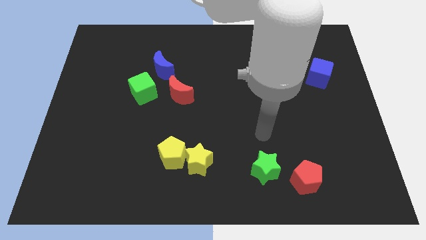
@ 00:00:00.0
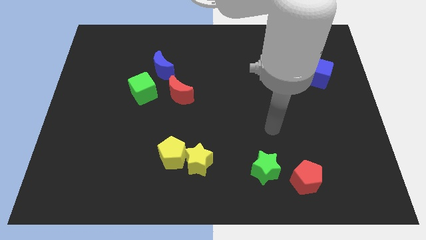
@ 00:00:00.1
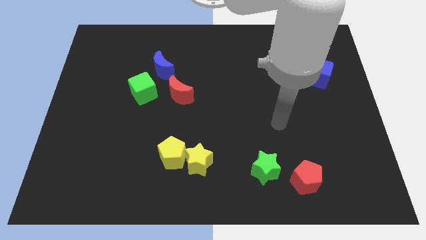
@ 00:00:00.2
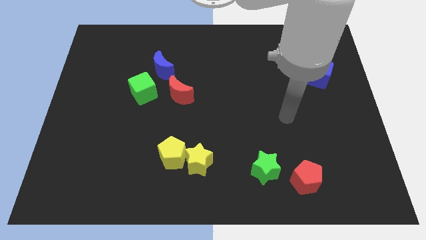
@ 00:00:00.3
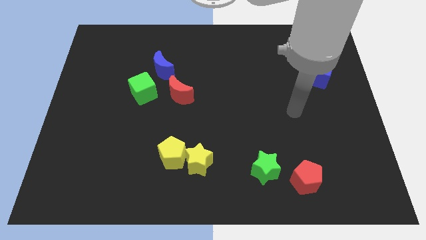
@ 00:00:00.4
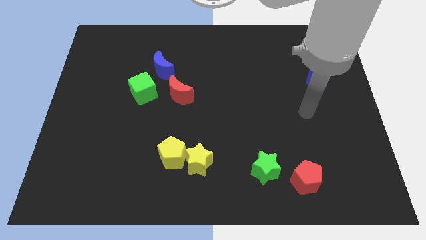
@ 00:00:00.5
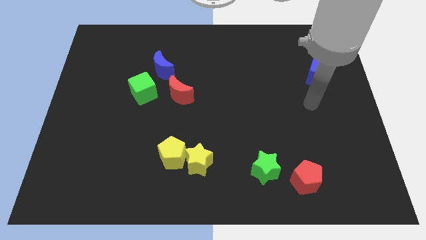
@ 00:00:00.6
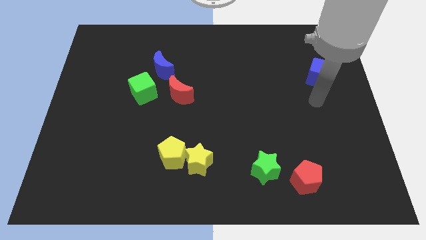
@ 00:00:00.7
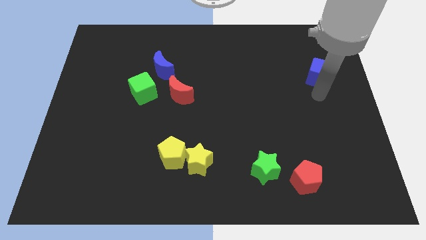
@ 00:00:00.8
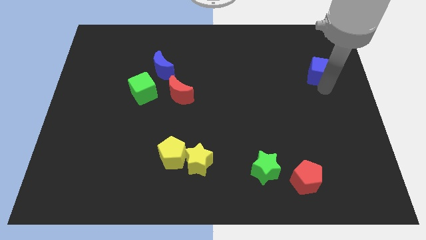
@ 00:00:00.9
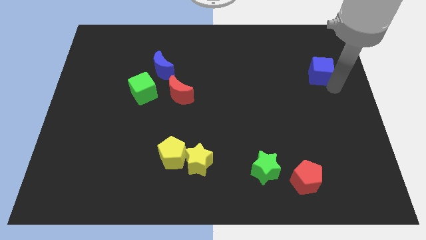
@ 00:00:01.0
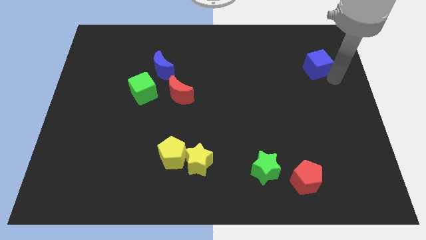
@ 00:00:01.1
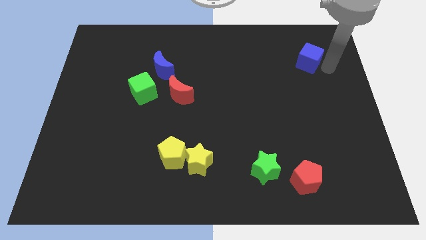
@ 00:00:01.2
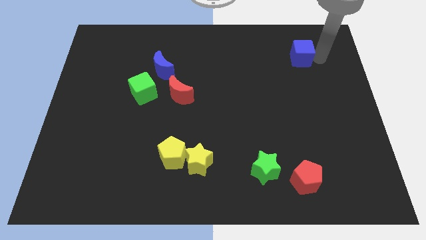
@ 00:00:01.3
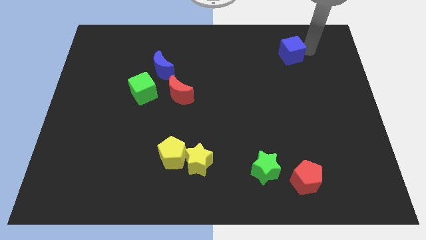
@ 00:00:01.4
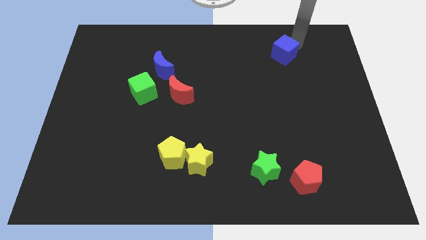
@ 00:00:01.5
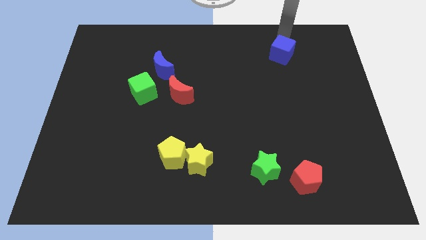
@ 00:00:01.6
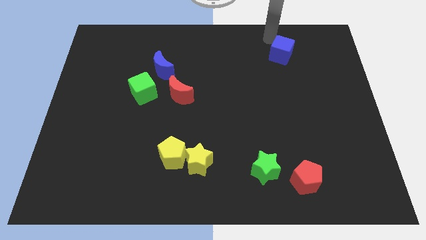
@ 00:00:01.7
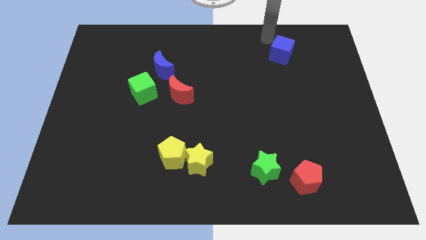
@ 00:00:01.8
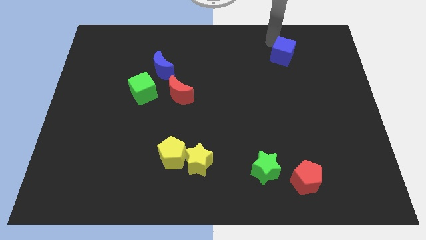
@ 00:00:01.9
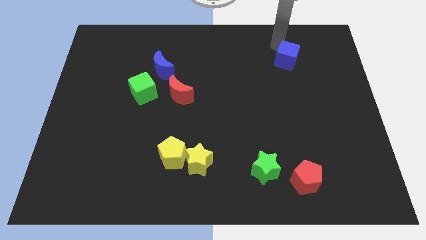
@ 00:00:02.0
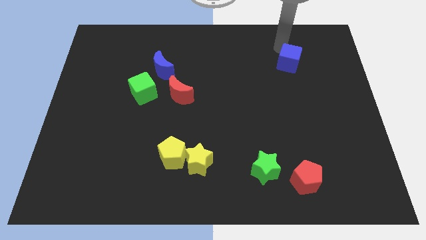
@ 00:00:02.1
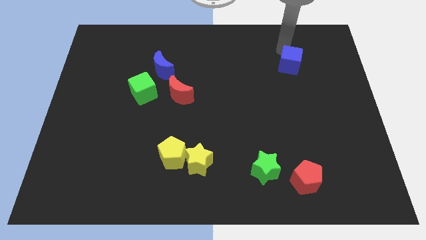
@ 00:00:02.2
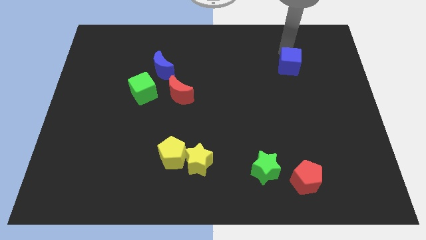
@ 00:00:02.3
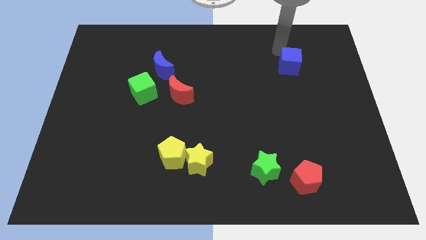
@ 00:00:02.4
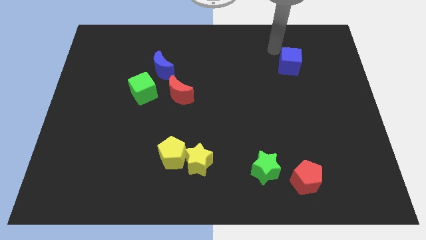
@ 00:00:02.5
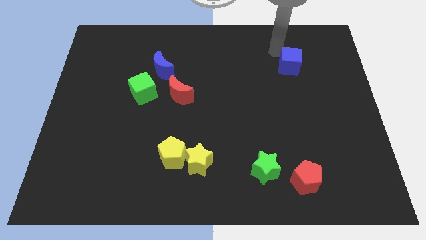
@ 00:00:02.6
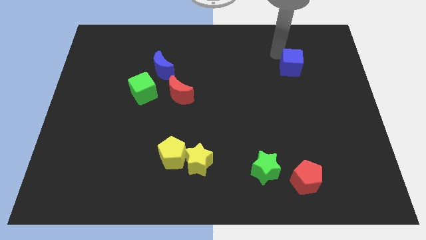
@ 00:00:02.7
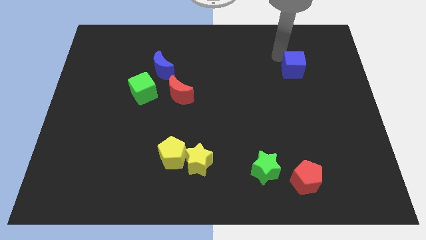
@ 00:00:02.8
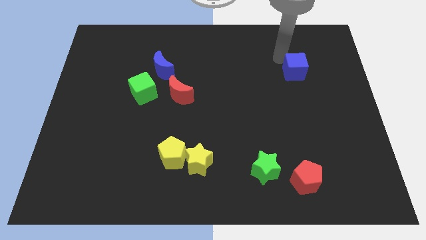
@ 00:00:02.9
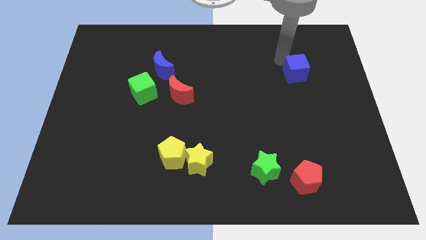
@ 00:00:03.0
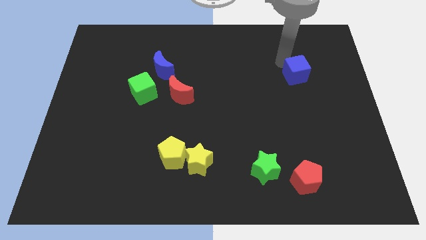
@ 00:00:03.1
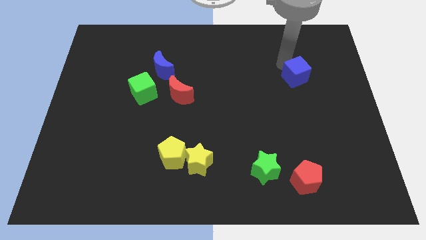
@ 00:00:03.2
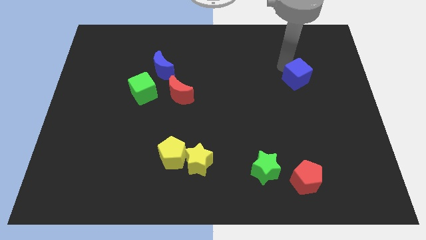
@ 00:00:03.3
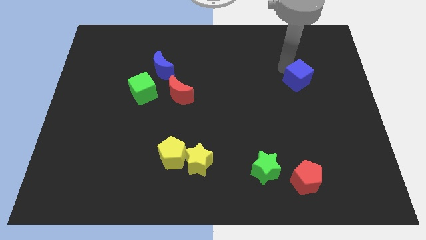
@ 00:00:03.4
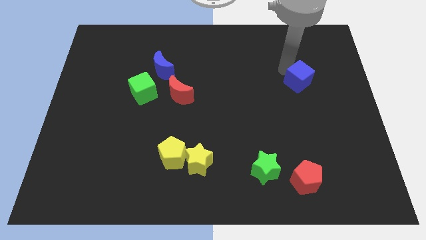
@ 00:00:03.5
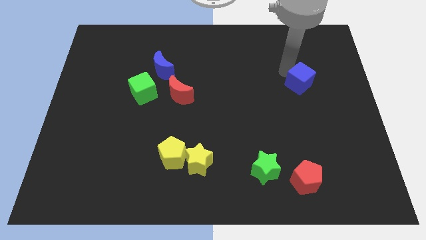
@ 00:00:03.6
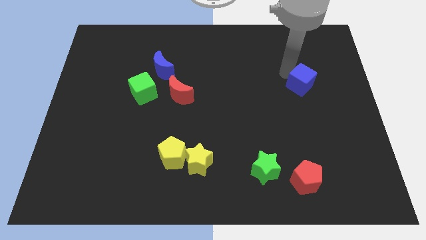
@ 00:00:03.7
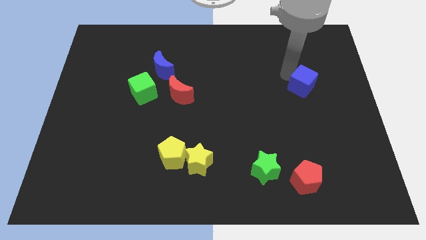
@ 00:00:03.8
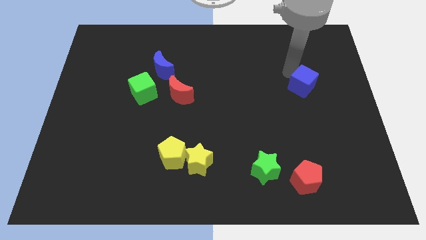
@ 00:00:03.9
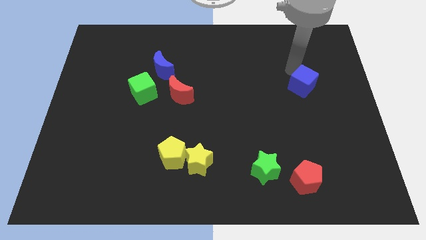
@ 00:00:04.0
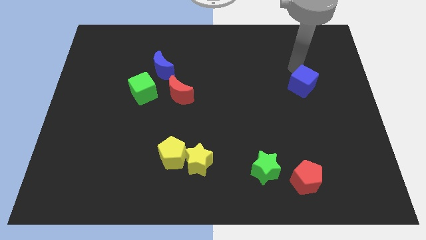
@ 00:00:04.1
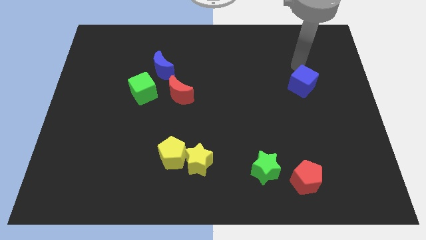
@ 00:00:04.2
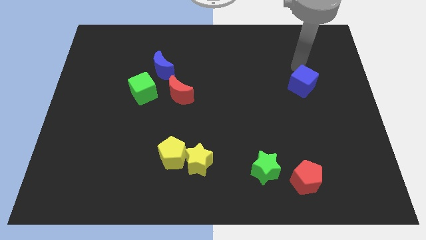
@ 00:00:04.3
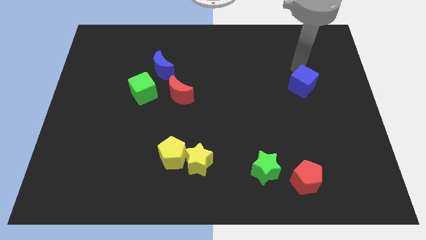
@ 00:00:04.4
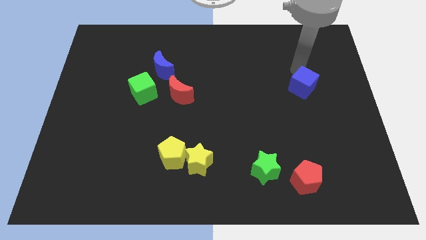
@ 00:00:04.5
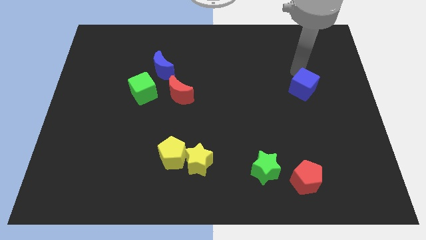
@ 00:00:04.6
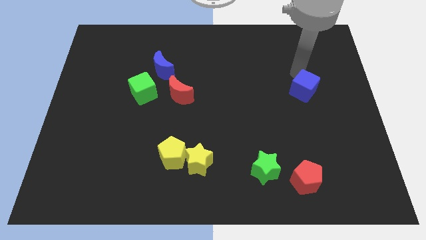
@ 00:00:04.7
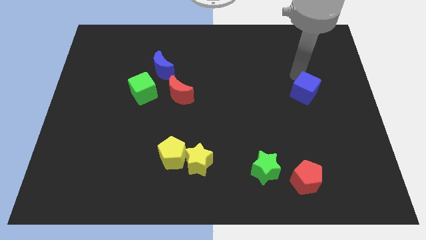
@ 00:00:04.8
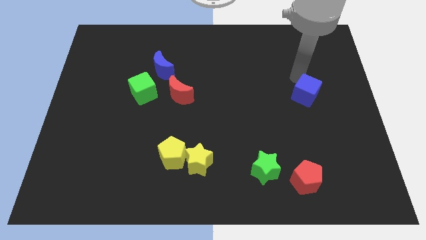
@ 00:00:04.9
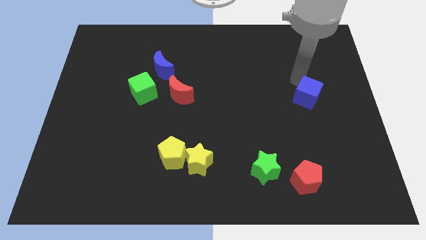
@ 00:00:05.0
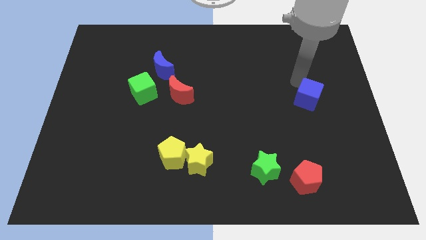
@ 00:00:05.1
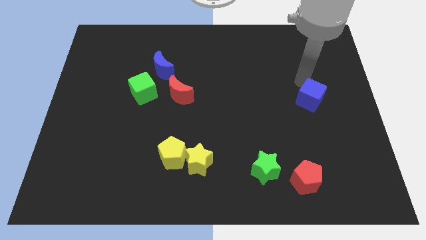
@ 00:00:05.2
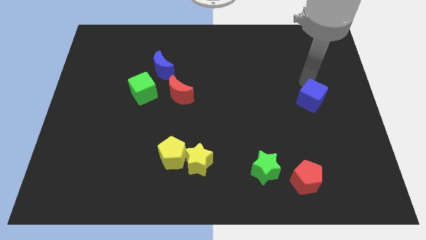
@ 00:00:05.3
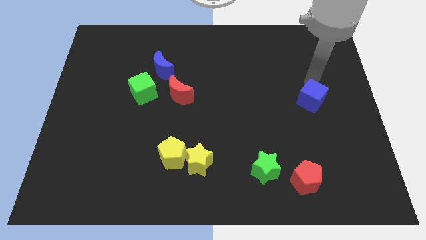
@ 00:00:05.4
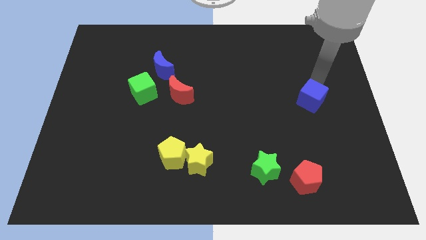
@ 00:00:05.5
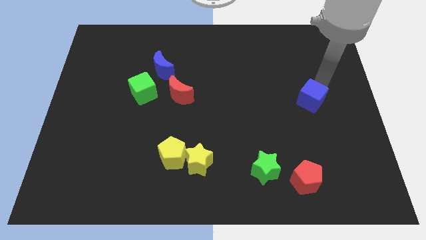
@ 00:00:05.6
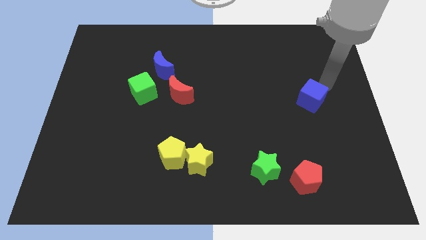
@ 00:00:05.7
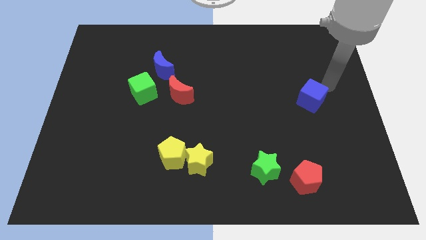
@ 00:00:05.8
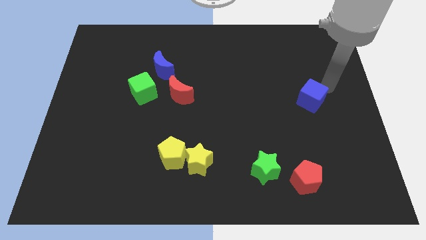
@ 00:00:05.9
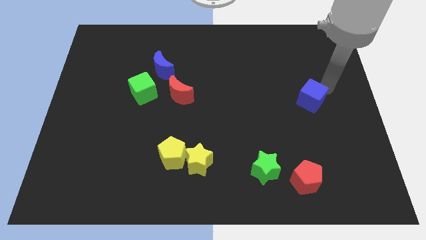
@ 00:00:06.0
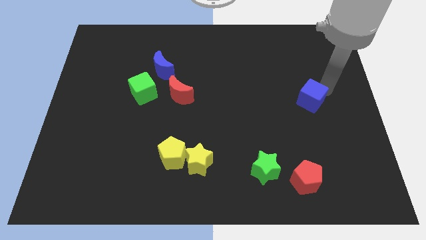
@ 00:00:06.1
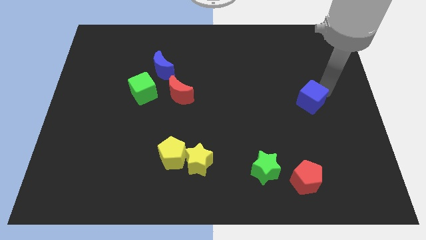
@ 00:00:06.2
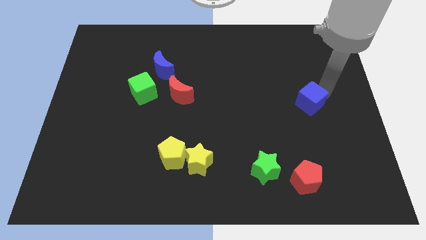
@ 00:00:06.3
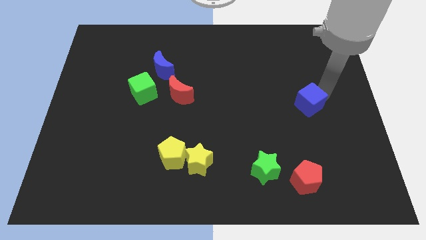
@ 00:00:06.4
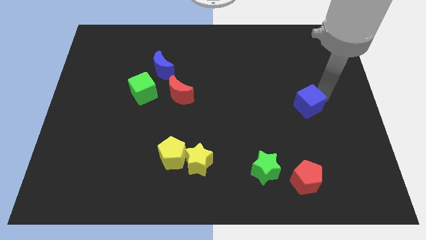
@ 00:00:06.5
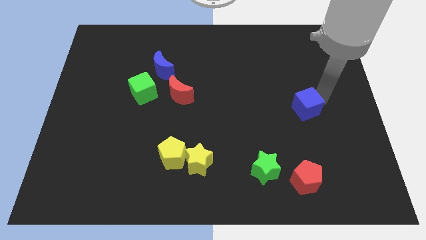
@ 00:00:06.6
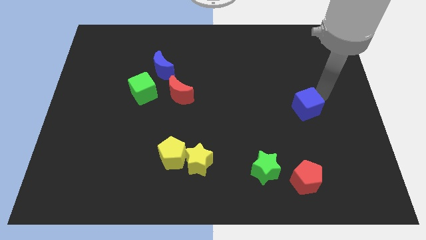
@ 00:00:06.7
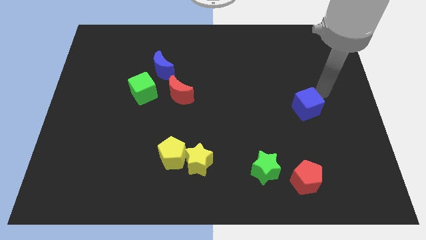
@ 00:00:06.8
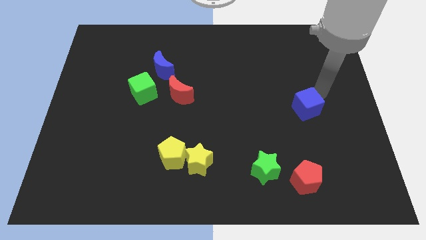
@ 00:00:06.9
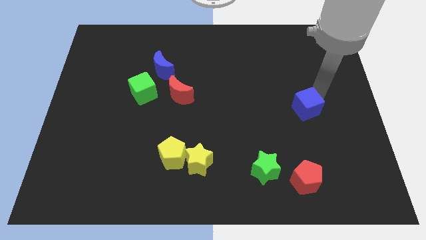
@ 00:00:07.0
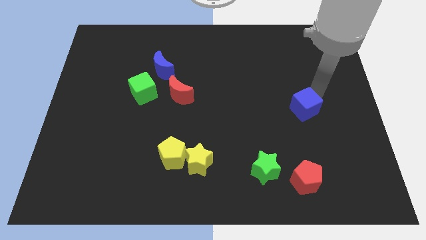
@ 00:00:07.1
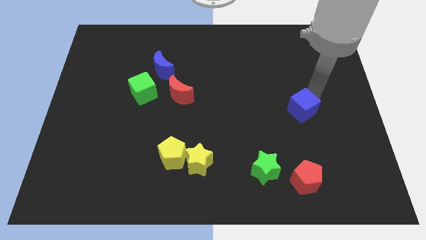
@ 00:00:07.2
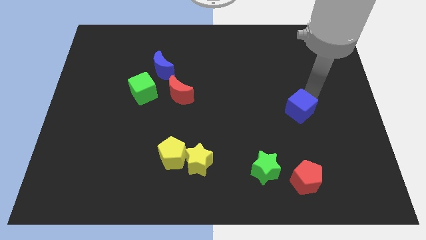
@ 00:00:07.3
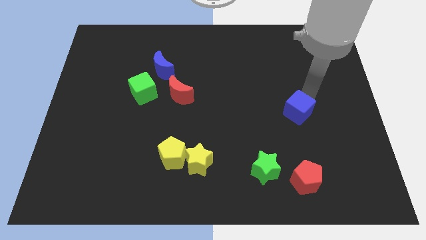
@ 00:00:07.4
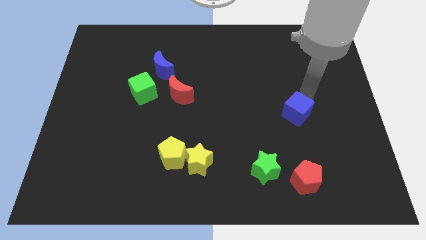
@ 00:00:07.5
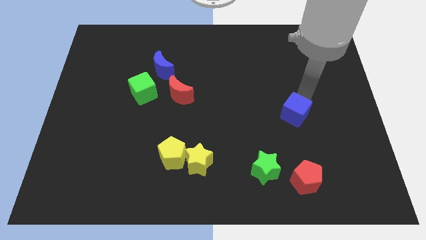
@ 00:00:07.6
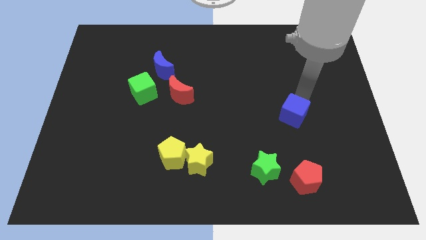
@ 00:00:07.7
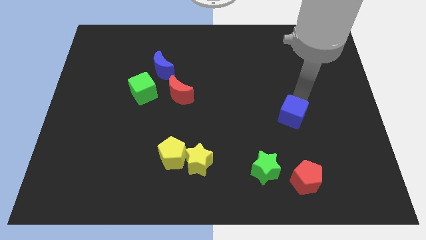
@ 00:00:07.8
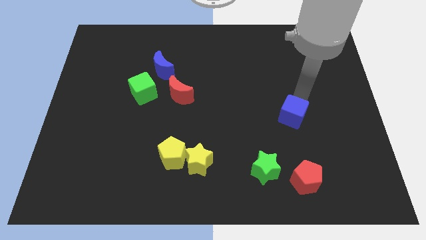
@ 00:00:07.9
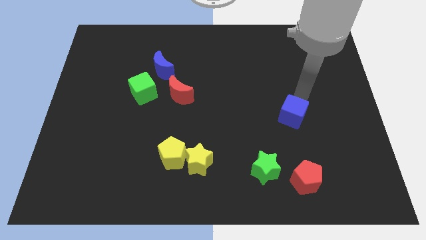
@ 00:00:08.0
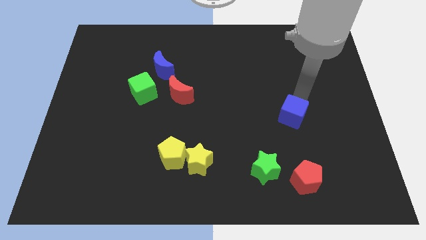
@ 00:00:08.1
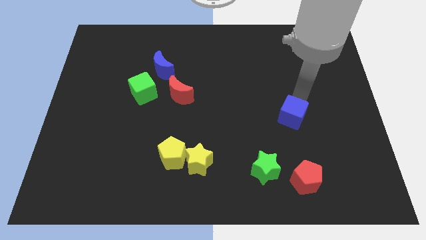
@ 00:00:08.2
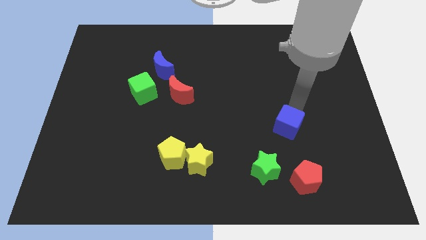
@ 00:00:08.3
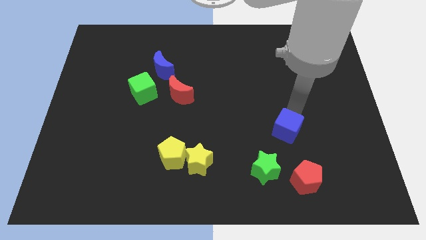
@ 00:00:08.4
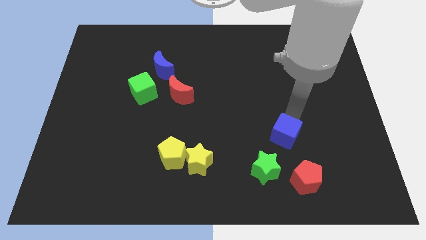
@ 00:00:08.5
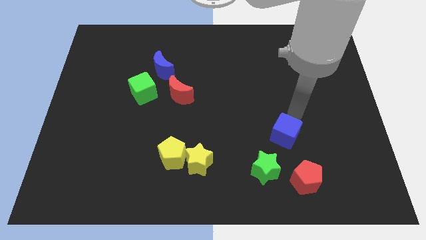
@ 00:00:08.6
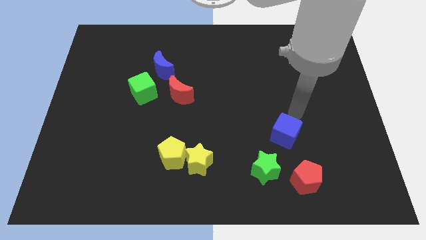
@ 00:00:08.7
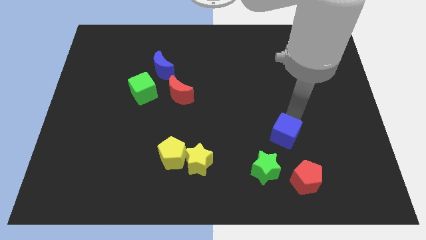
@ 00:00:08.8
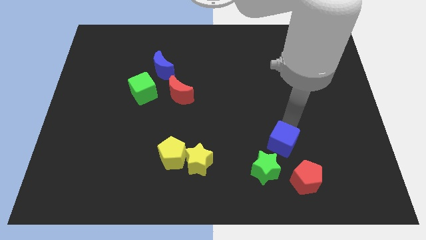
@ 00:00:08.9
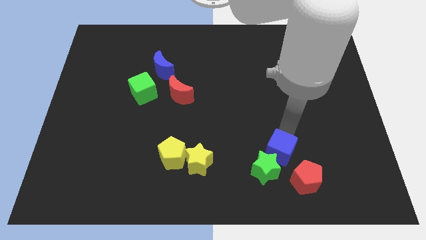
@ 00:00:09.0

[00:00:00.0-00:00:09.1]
put the blue cube towards the green star
